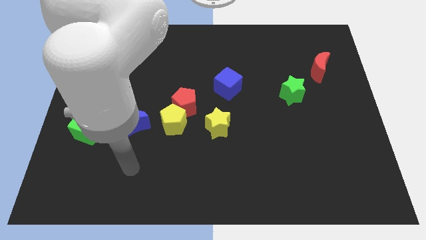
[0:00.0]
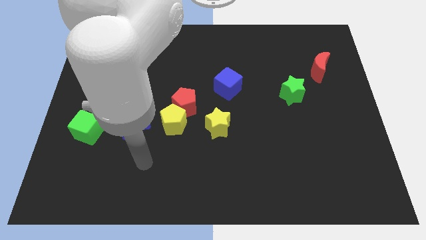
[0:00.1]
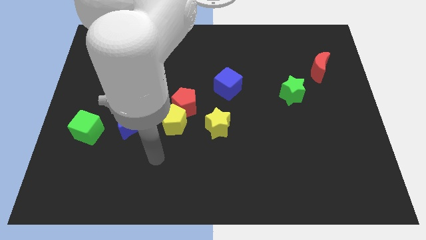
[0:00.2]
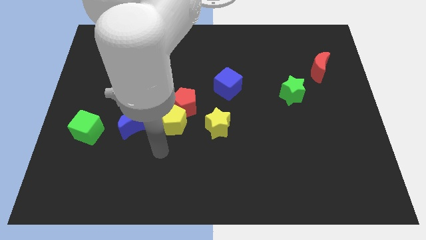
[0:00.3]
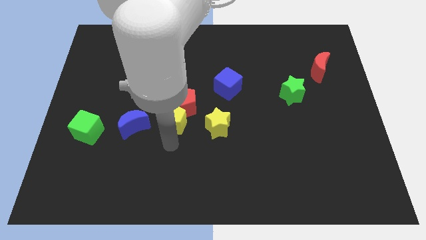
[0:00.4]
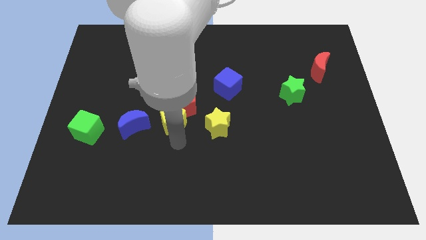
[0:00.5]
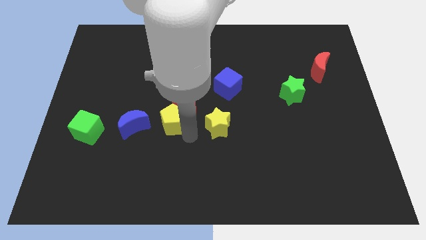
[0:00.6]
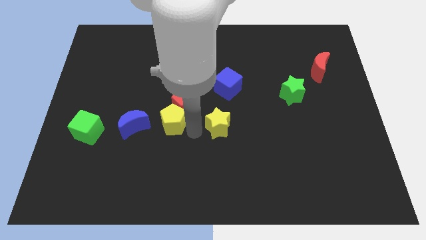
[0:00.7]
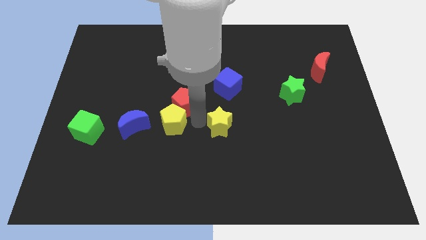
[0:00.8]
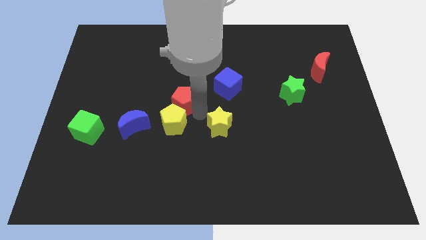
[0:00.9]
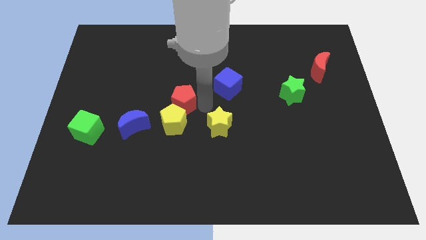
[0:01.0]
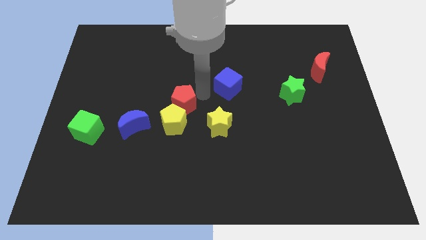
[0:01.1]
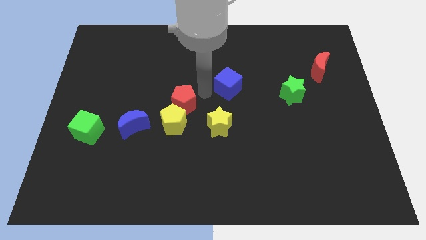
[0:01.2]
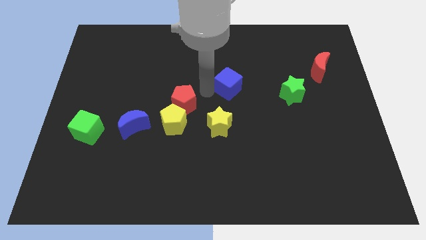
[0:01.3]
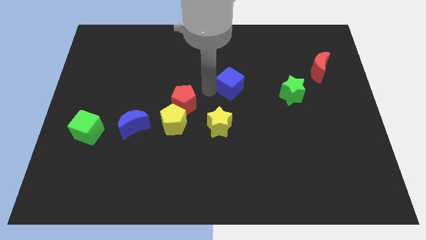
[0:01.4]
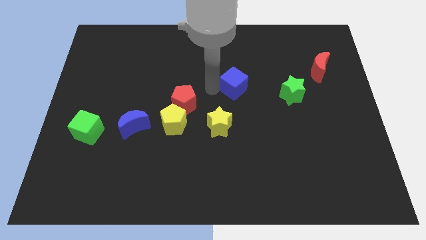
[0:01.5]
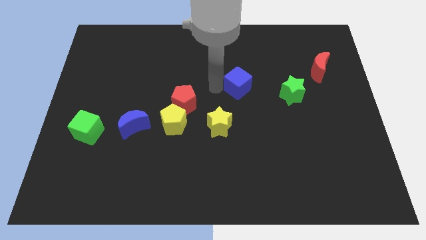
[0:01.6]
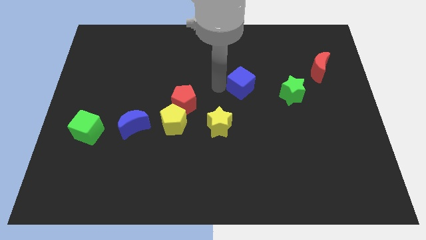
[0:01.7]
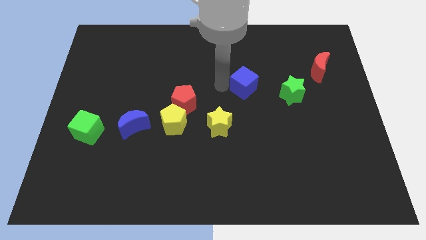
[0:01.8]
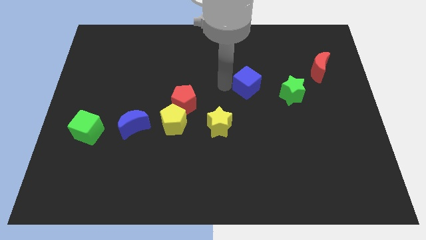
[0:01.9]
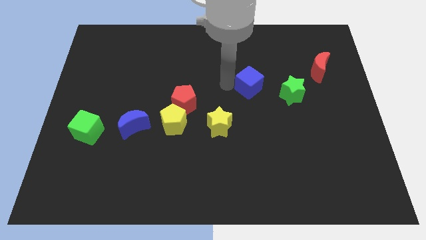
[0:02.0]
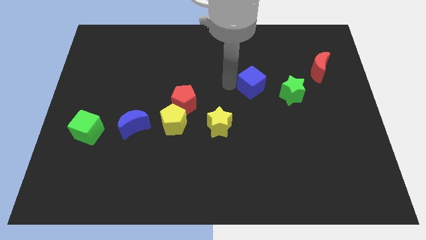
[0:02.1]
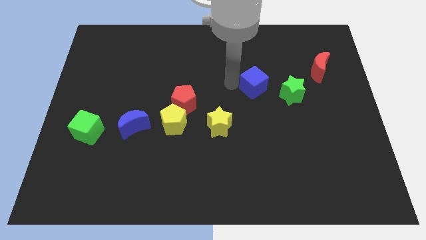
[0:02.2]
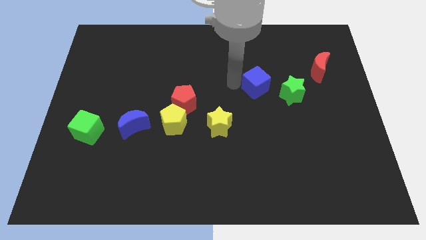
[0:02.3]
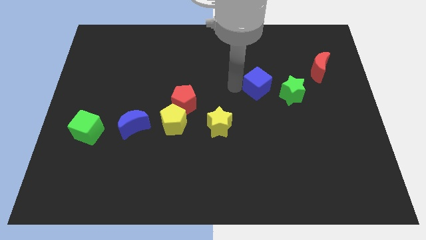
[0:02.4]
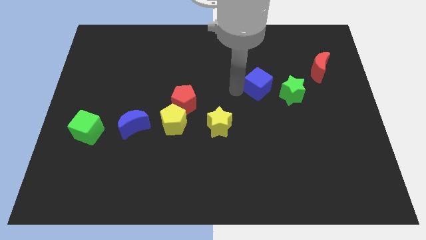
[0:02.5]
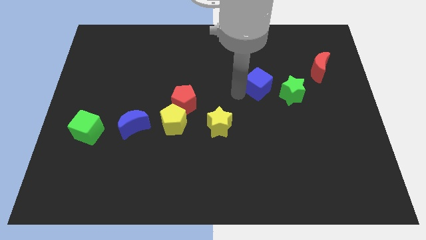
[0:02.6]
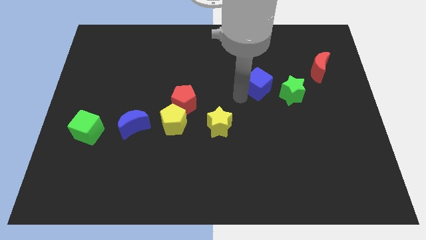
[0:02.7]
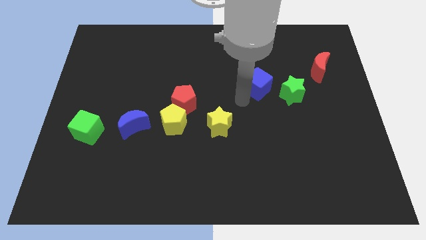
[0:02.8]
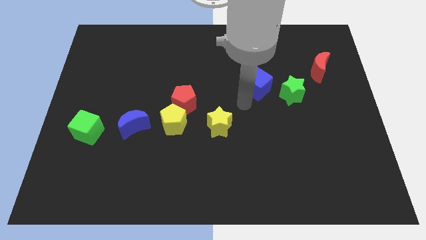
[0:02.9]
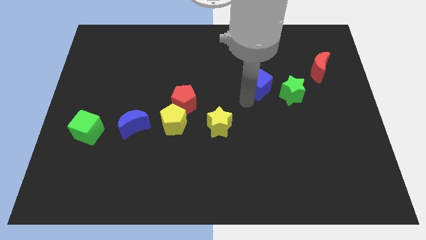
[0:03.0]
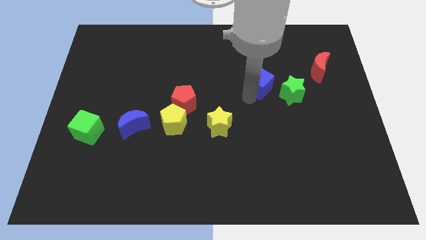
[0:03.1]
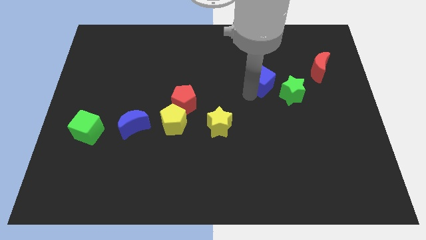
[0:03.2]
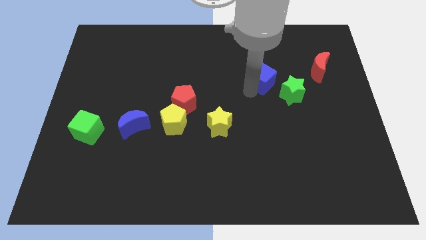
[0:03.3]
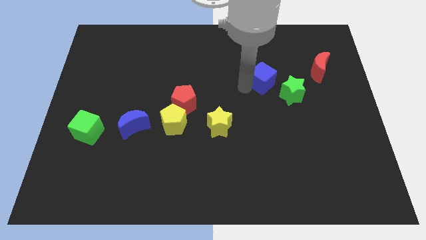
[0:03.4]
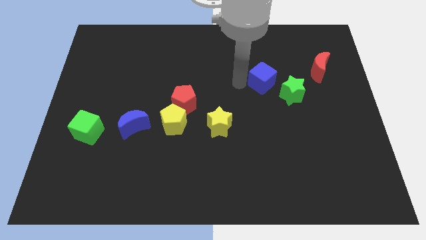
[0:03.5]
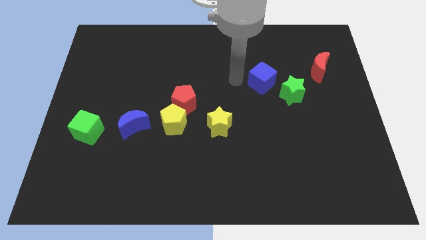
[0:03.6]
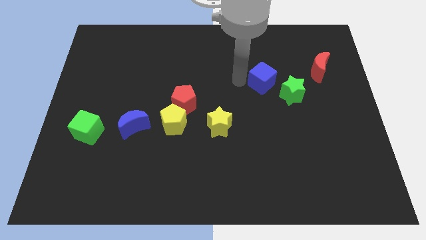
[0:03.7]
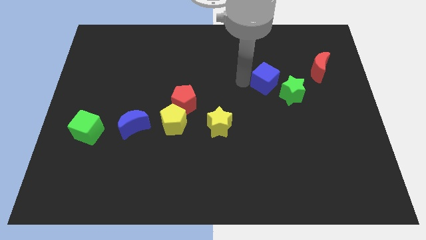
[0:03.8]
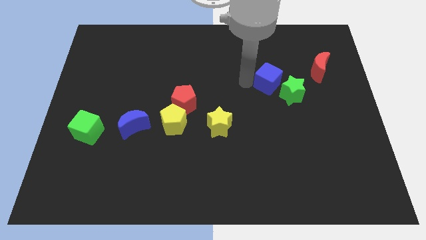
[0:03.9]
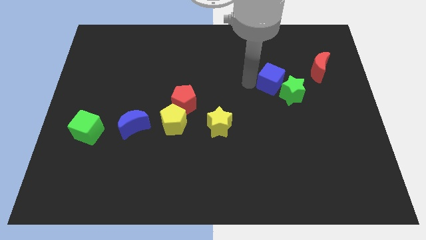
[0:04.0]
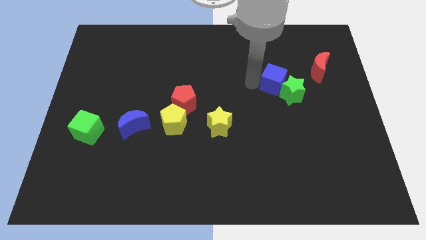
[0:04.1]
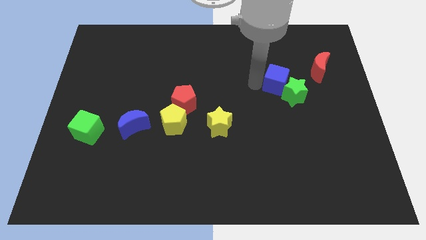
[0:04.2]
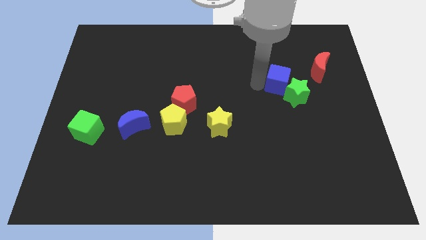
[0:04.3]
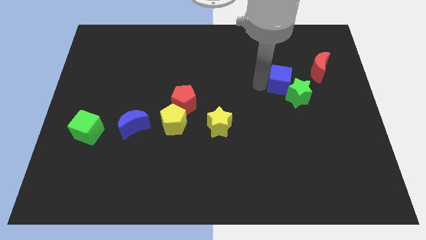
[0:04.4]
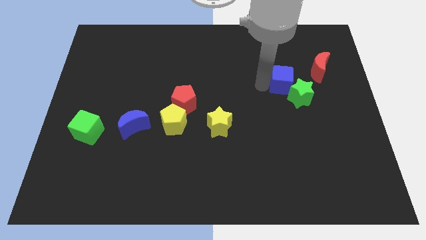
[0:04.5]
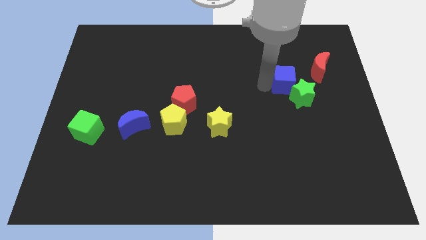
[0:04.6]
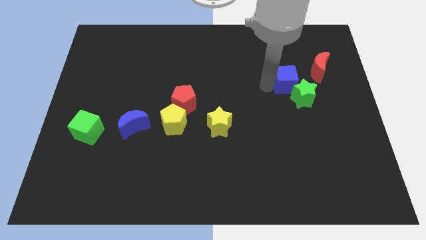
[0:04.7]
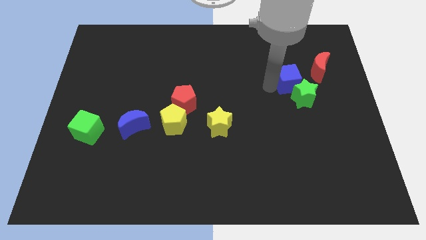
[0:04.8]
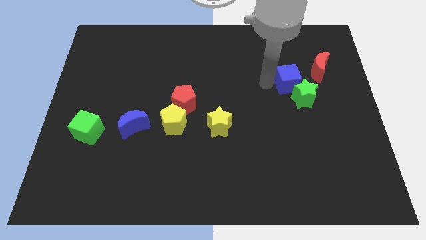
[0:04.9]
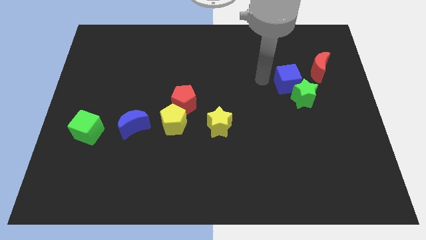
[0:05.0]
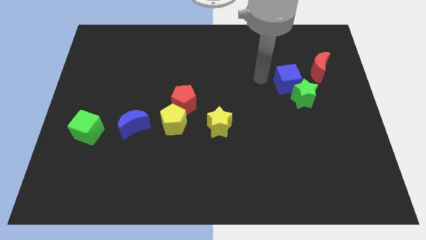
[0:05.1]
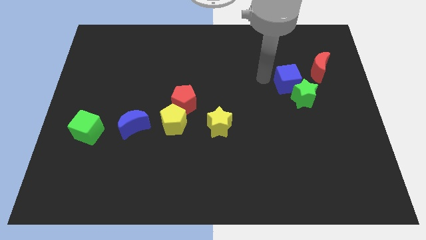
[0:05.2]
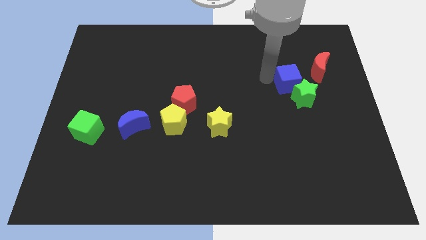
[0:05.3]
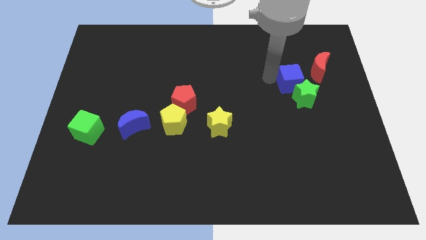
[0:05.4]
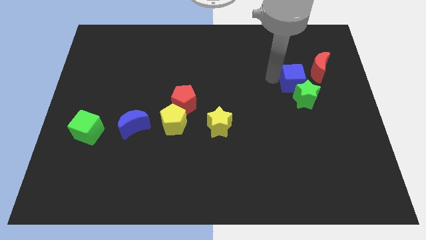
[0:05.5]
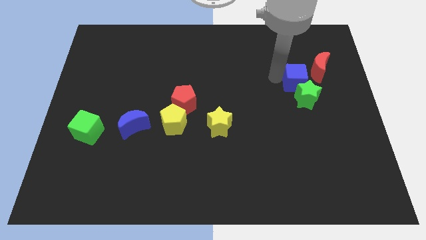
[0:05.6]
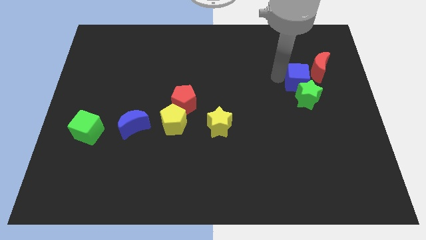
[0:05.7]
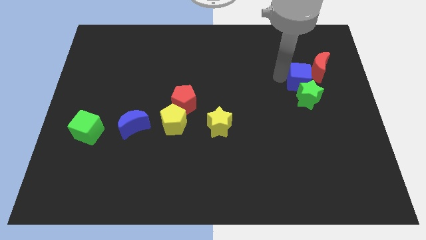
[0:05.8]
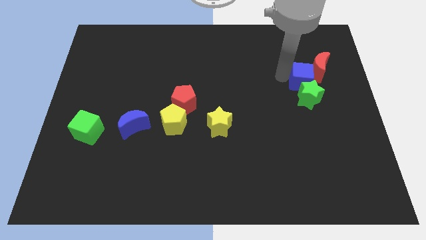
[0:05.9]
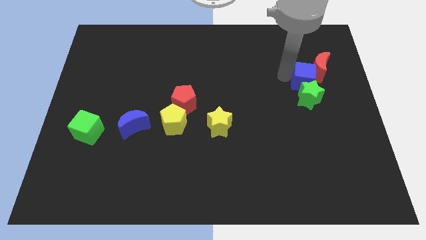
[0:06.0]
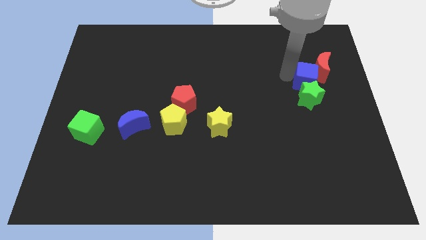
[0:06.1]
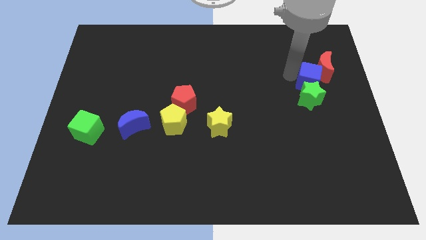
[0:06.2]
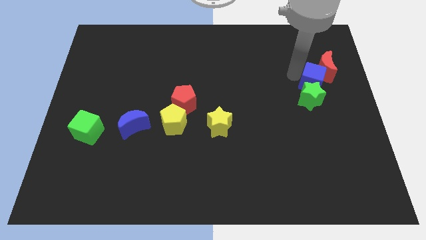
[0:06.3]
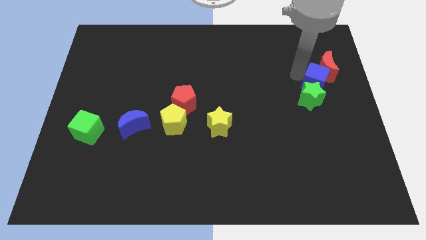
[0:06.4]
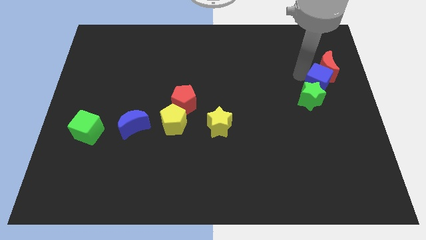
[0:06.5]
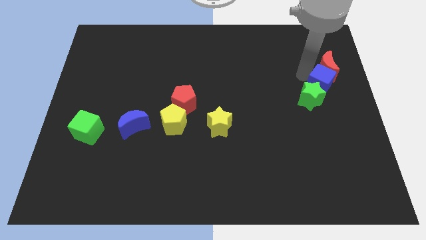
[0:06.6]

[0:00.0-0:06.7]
slide the blue cube to the right side of the board

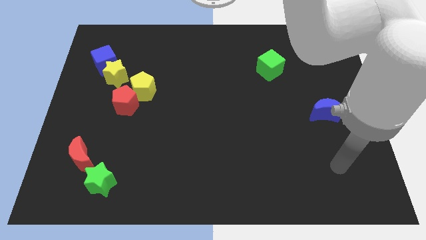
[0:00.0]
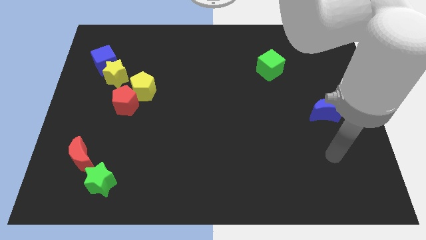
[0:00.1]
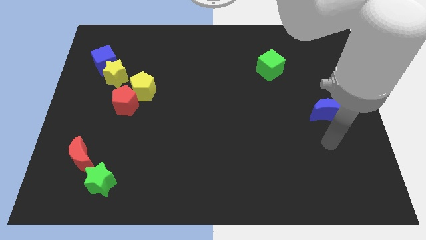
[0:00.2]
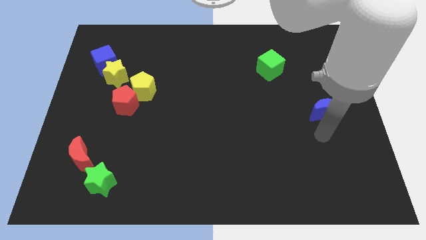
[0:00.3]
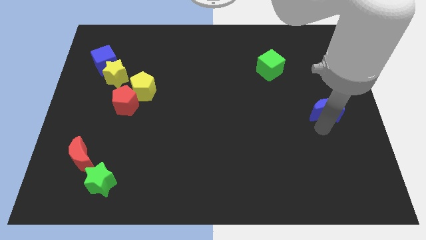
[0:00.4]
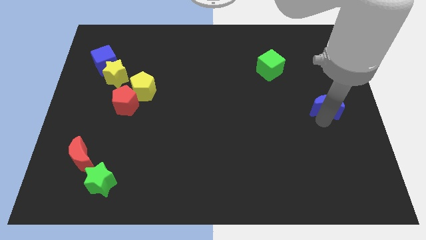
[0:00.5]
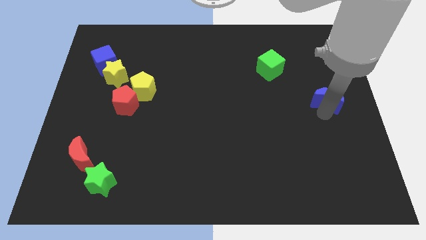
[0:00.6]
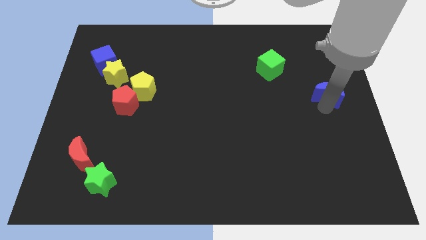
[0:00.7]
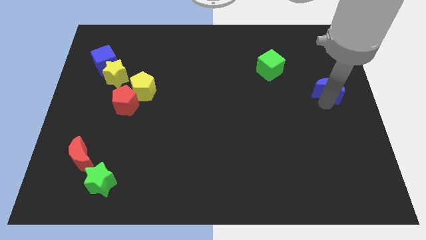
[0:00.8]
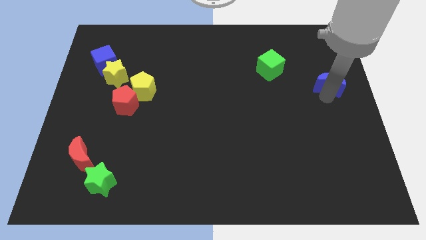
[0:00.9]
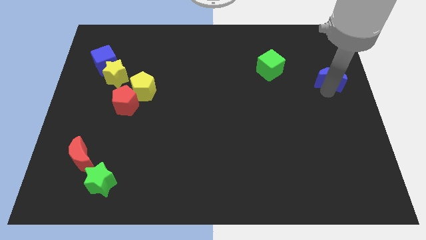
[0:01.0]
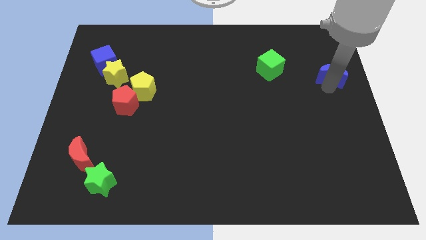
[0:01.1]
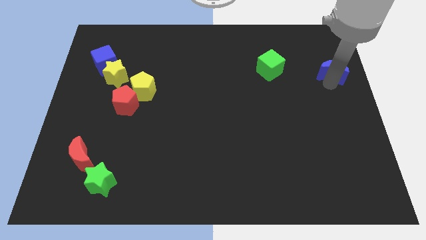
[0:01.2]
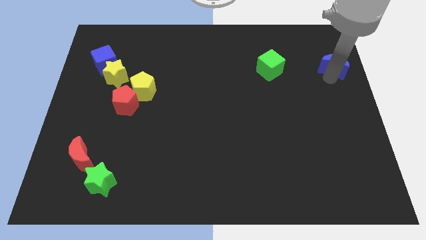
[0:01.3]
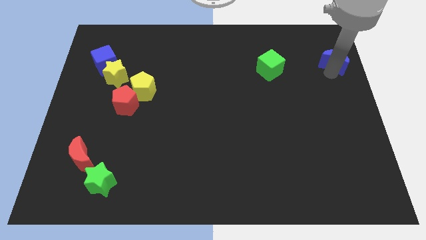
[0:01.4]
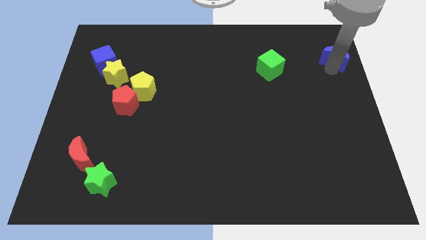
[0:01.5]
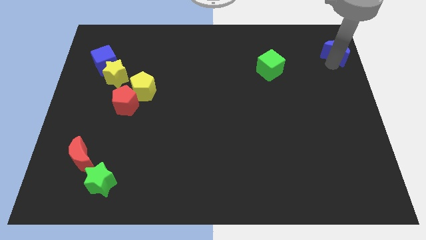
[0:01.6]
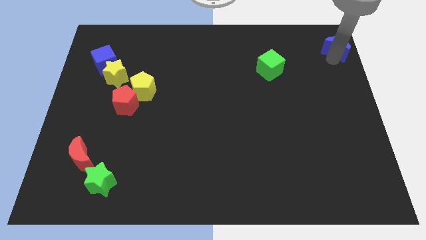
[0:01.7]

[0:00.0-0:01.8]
push the blue moon to the top right of the board
